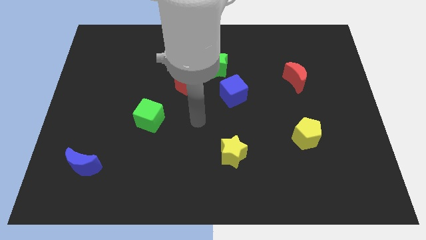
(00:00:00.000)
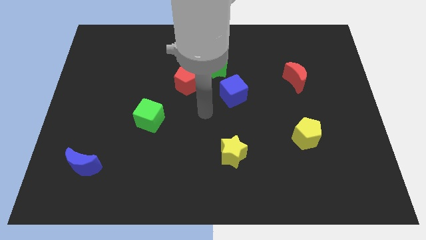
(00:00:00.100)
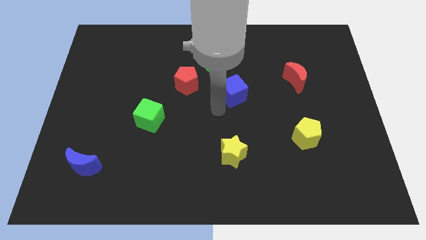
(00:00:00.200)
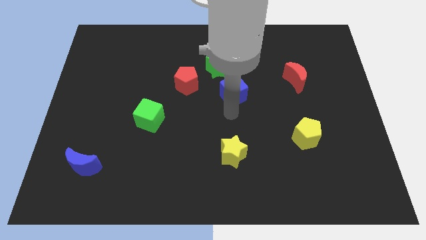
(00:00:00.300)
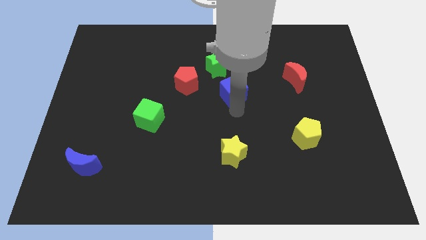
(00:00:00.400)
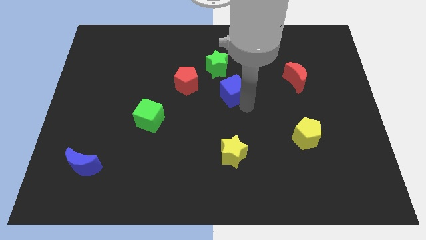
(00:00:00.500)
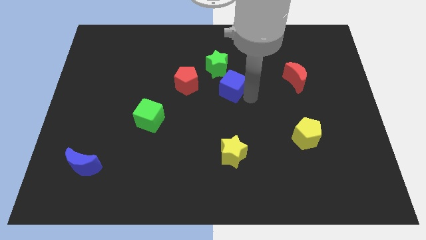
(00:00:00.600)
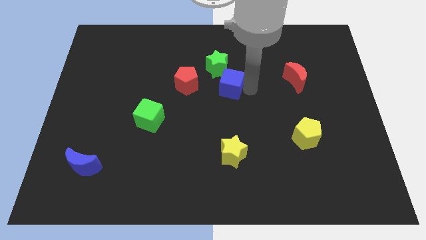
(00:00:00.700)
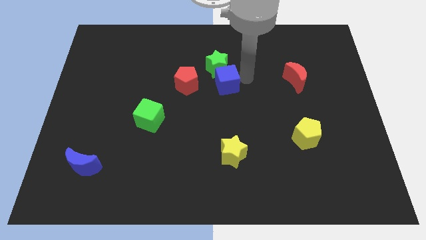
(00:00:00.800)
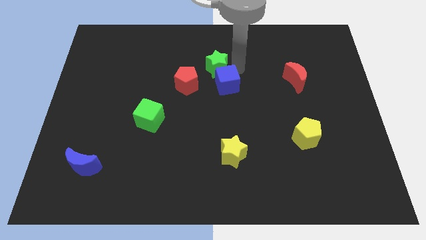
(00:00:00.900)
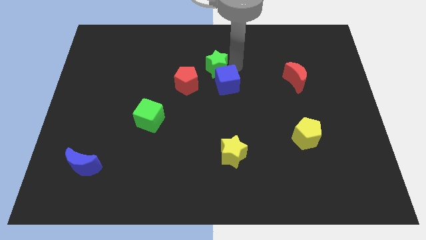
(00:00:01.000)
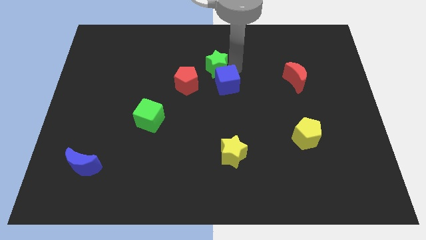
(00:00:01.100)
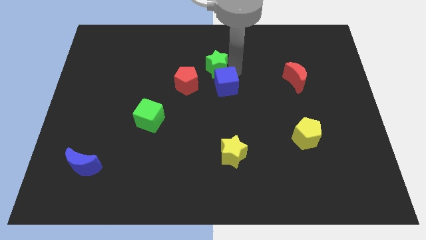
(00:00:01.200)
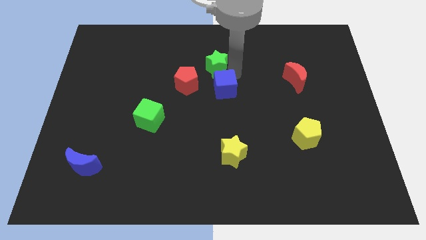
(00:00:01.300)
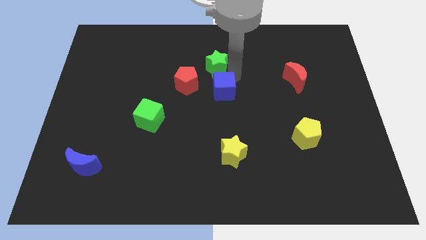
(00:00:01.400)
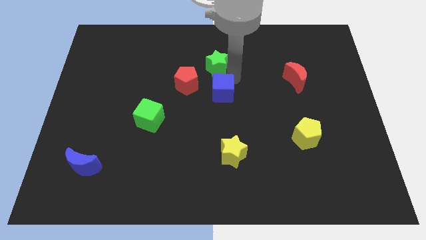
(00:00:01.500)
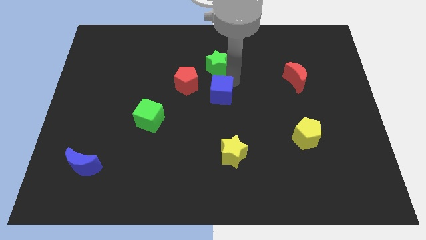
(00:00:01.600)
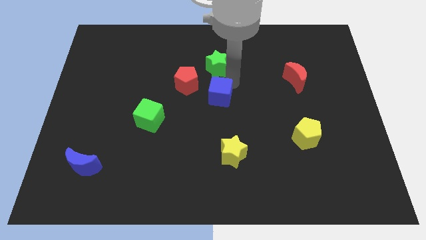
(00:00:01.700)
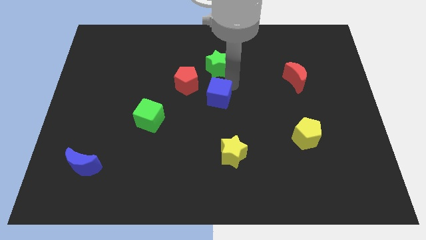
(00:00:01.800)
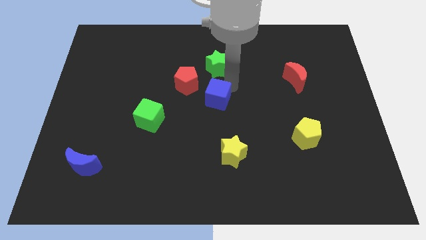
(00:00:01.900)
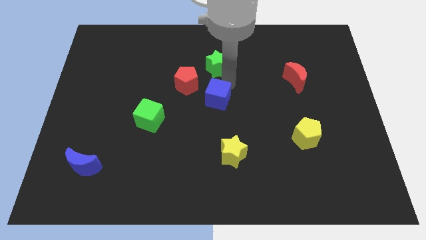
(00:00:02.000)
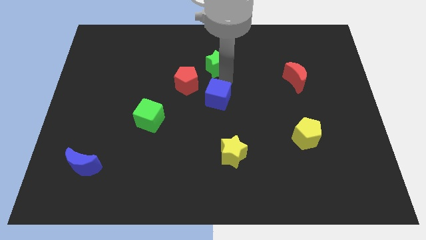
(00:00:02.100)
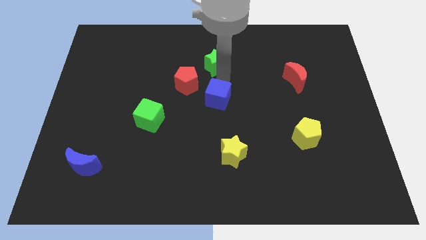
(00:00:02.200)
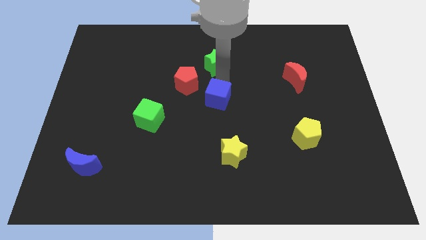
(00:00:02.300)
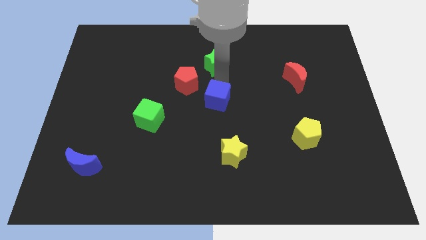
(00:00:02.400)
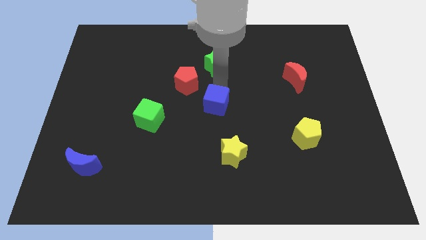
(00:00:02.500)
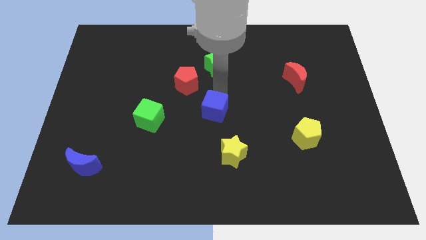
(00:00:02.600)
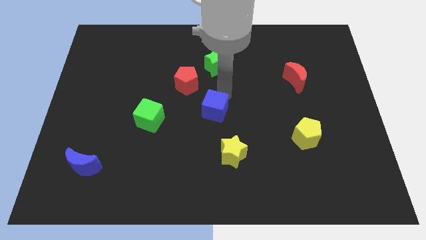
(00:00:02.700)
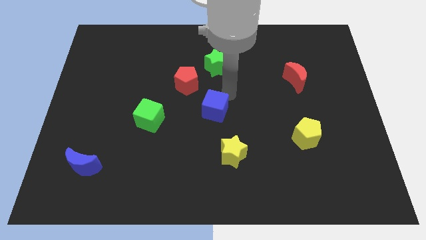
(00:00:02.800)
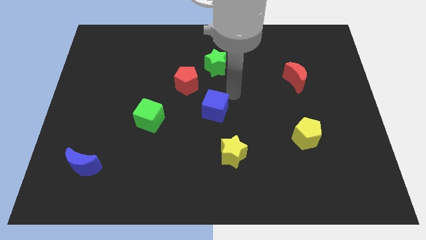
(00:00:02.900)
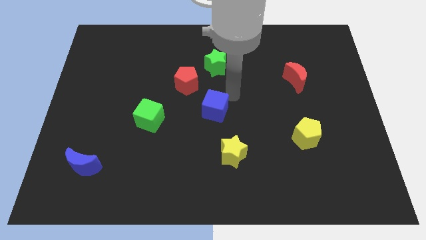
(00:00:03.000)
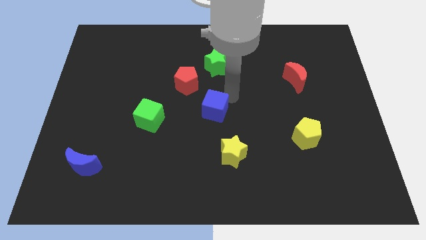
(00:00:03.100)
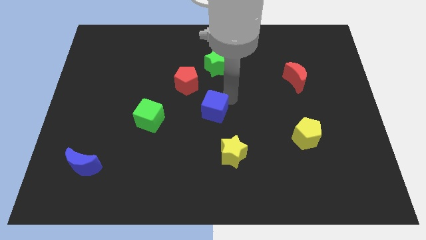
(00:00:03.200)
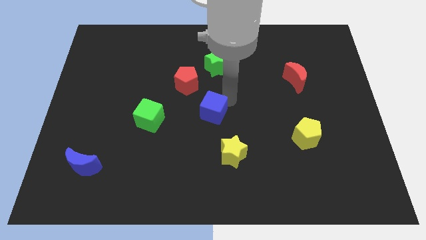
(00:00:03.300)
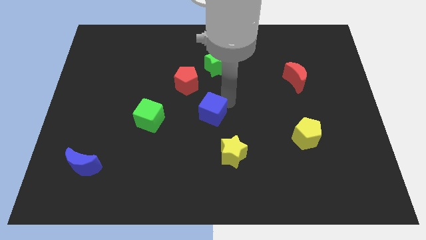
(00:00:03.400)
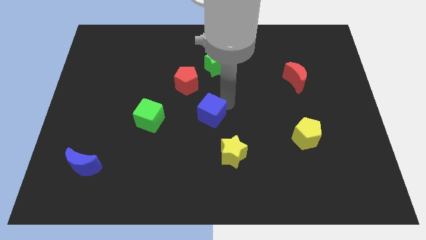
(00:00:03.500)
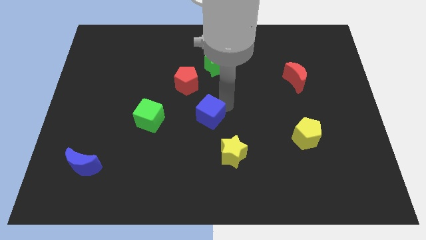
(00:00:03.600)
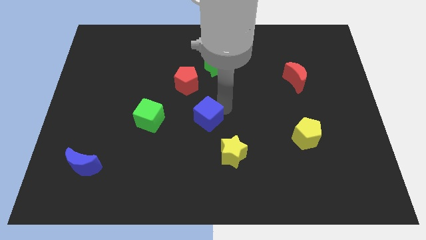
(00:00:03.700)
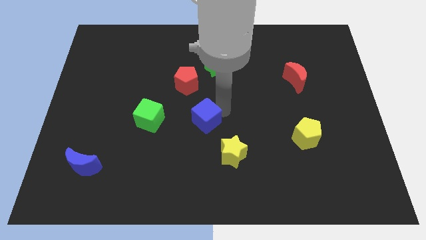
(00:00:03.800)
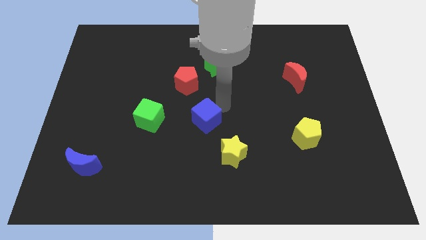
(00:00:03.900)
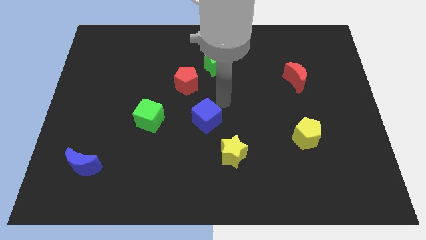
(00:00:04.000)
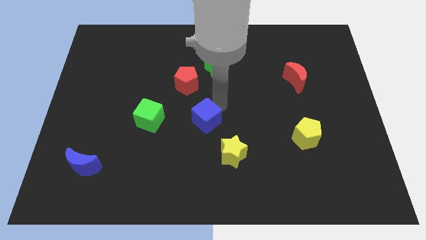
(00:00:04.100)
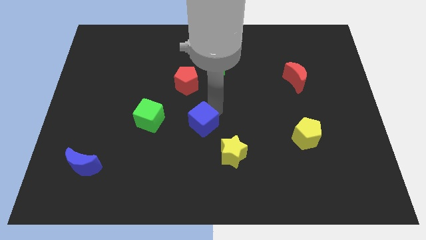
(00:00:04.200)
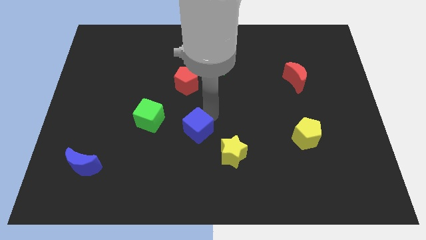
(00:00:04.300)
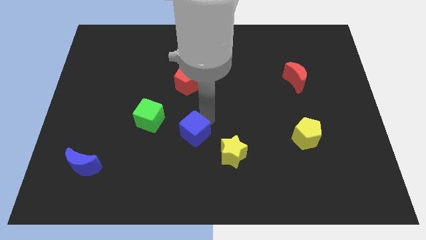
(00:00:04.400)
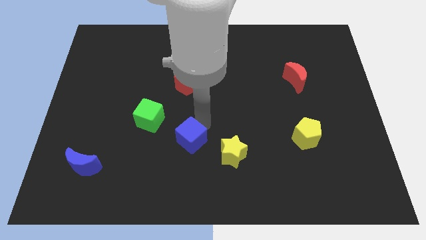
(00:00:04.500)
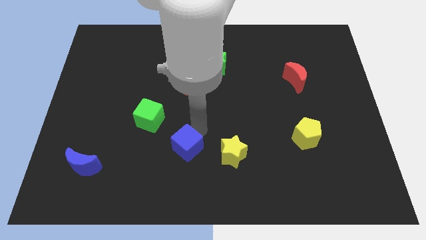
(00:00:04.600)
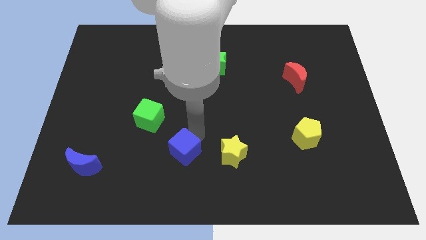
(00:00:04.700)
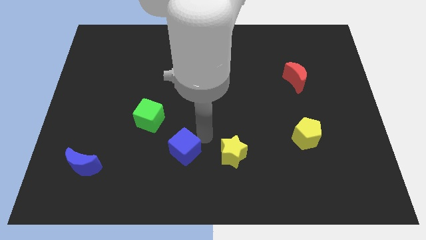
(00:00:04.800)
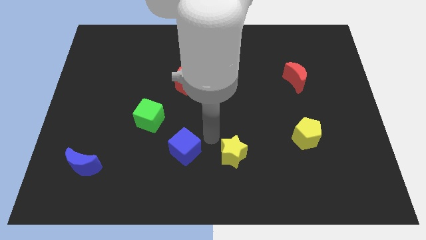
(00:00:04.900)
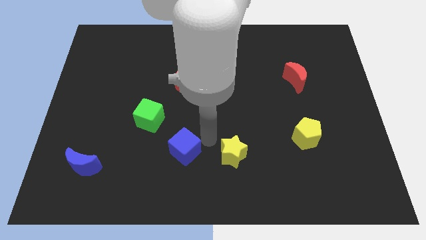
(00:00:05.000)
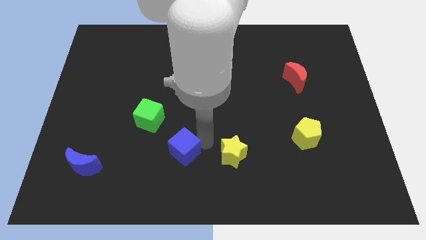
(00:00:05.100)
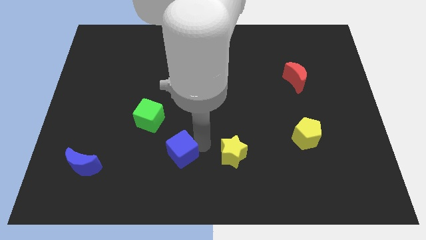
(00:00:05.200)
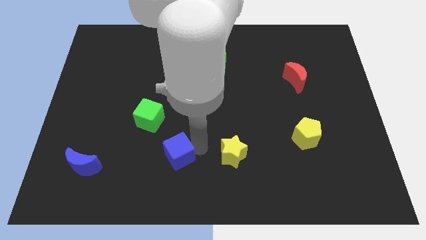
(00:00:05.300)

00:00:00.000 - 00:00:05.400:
move the blue cube diagonally down and to the left

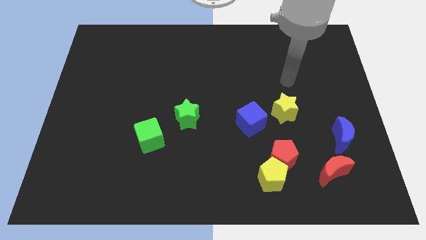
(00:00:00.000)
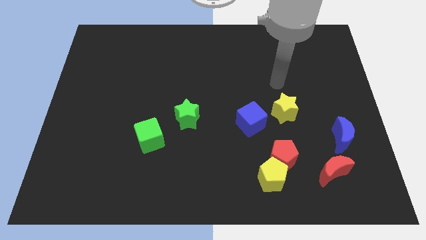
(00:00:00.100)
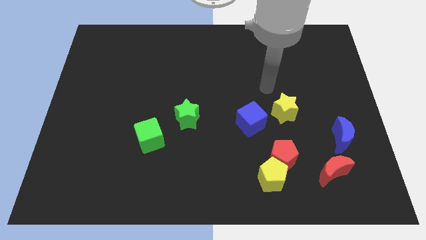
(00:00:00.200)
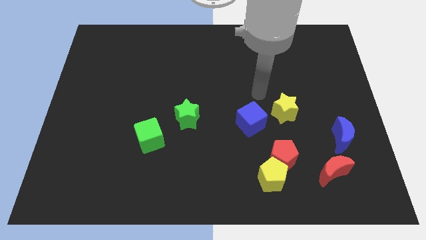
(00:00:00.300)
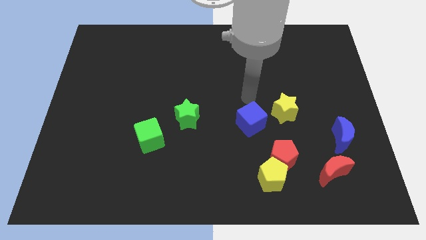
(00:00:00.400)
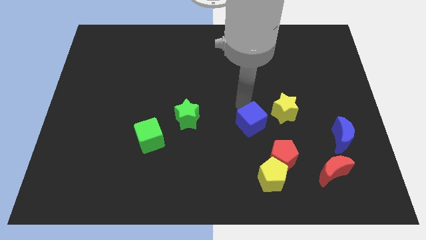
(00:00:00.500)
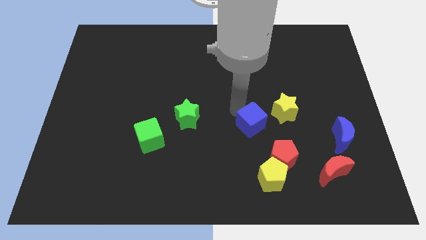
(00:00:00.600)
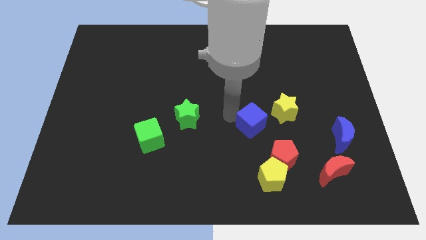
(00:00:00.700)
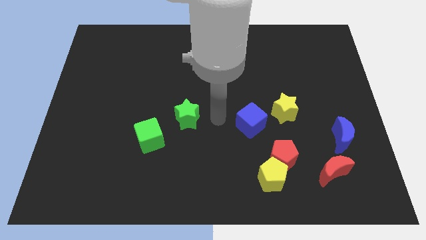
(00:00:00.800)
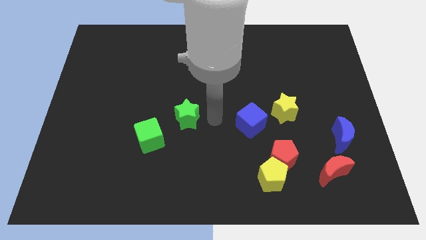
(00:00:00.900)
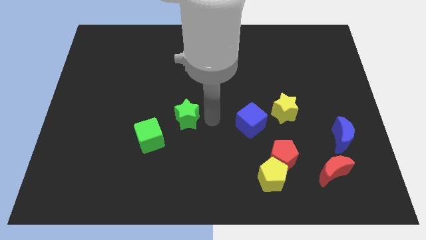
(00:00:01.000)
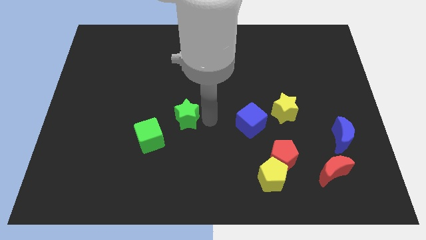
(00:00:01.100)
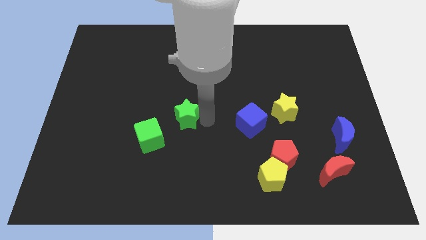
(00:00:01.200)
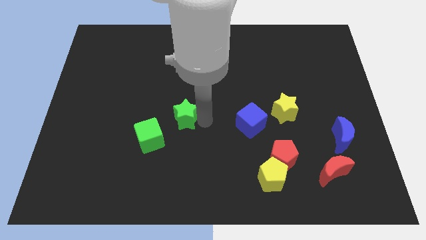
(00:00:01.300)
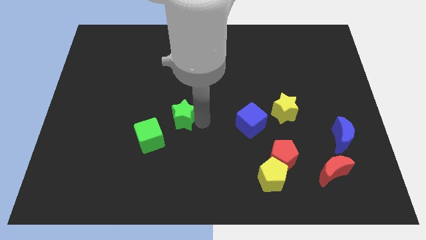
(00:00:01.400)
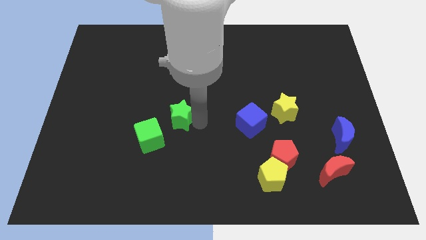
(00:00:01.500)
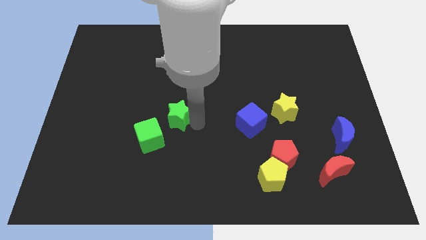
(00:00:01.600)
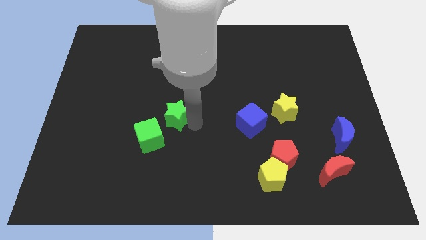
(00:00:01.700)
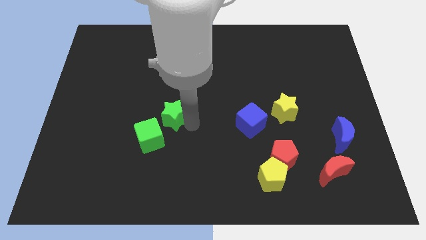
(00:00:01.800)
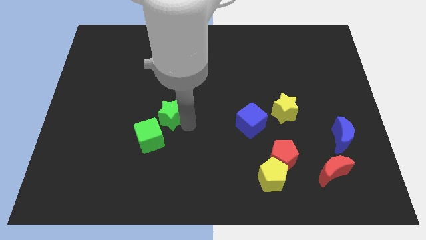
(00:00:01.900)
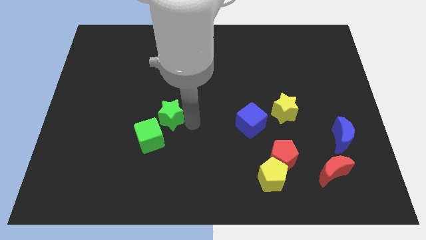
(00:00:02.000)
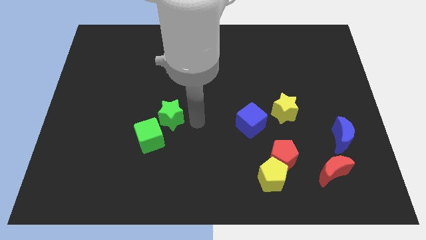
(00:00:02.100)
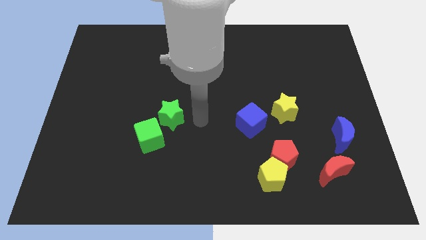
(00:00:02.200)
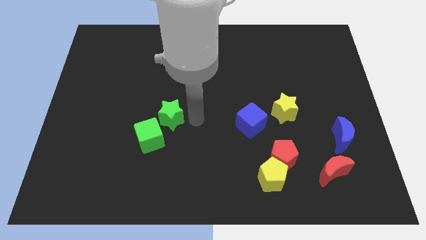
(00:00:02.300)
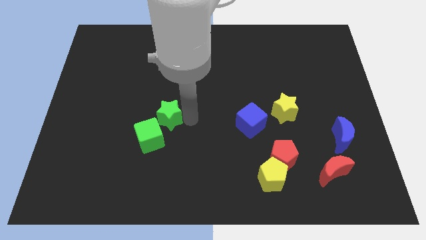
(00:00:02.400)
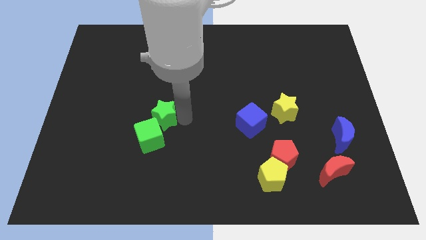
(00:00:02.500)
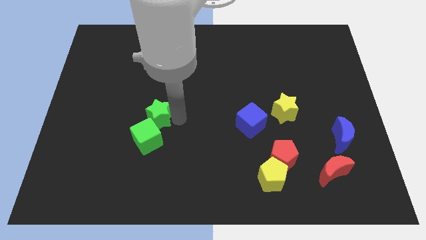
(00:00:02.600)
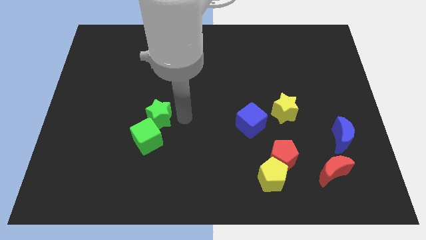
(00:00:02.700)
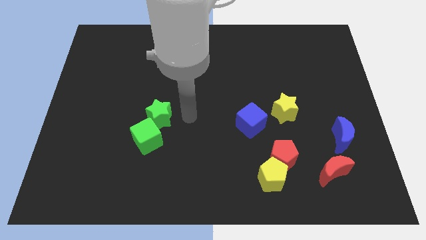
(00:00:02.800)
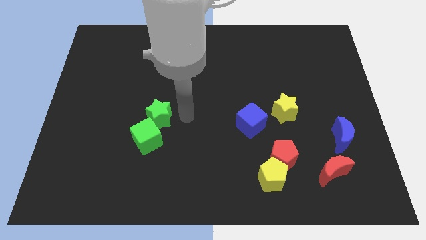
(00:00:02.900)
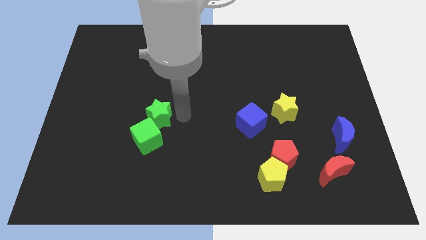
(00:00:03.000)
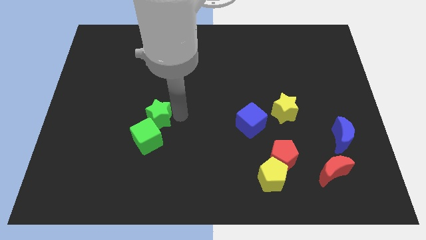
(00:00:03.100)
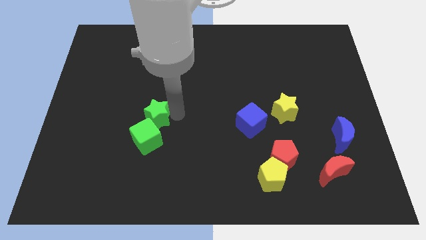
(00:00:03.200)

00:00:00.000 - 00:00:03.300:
push the green star a little bit left
